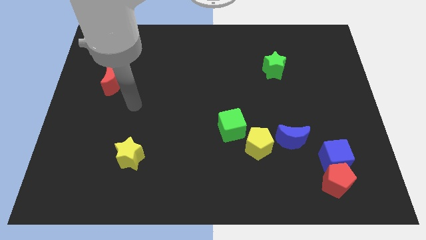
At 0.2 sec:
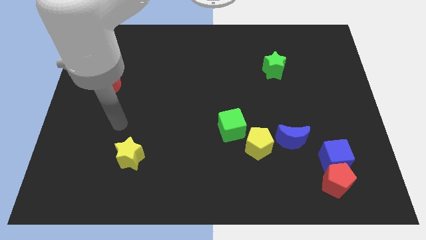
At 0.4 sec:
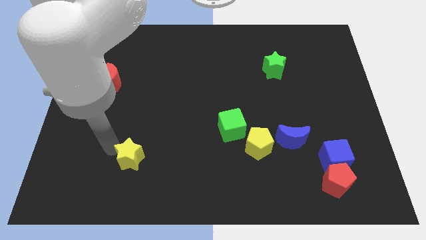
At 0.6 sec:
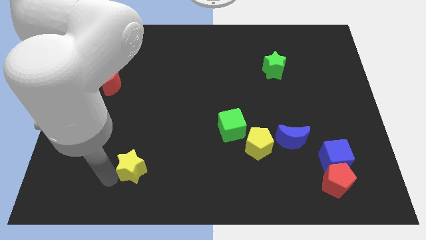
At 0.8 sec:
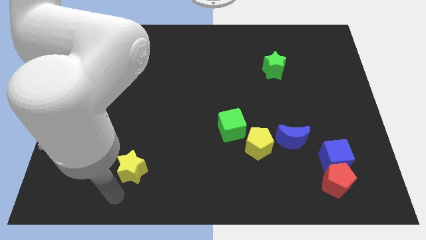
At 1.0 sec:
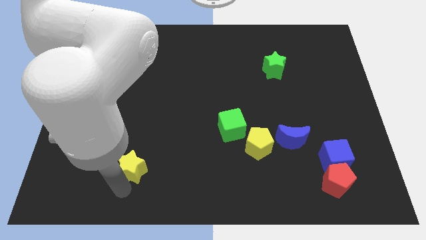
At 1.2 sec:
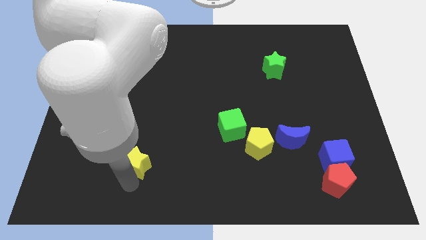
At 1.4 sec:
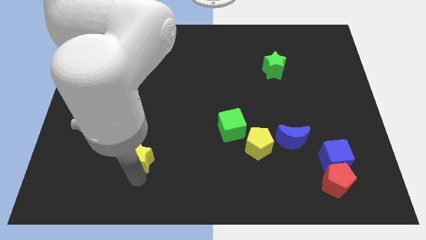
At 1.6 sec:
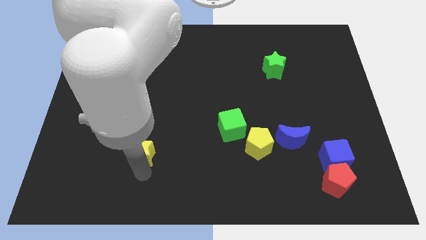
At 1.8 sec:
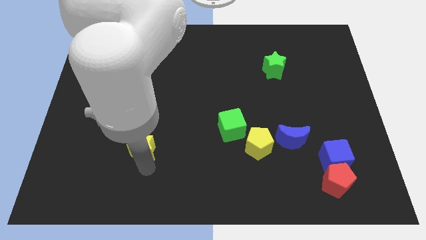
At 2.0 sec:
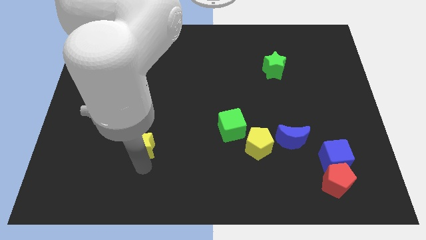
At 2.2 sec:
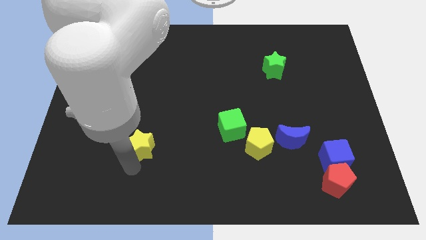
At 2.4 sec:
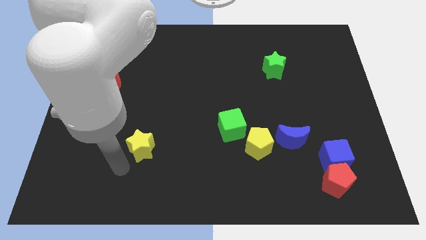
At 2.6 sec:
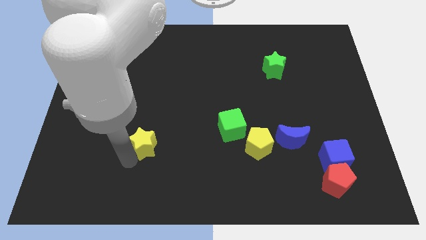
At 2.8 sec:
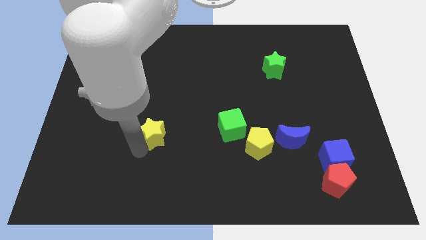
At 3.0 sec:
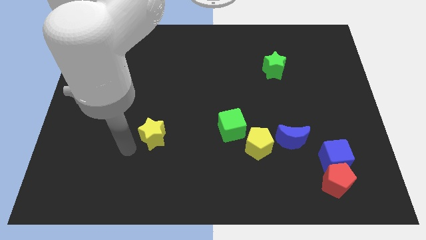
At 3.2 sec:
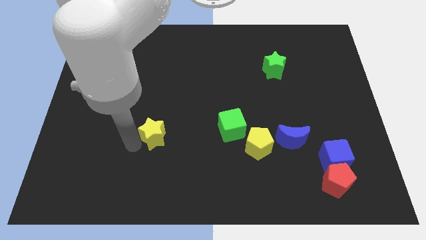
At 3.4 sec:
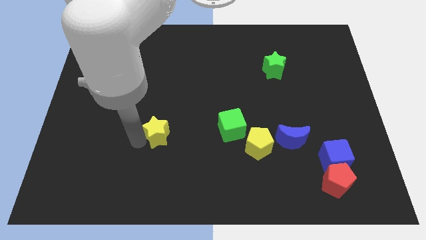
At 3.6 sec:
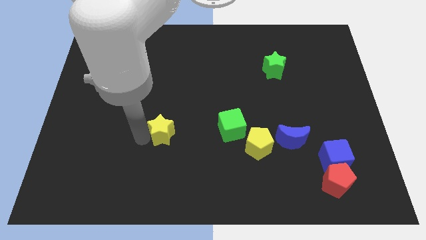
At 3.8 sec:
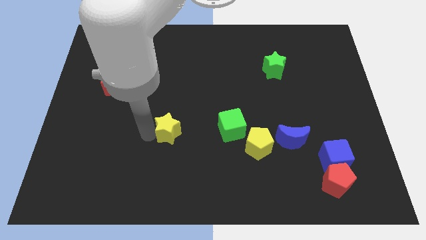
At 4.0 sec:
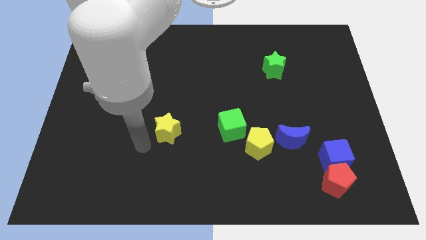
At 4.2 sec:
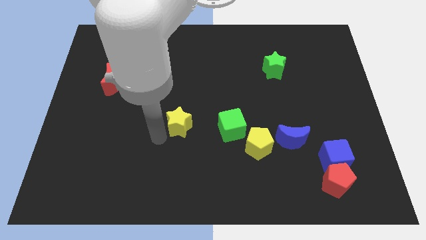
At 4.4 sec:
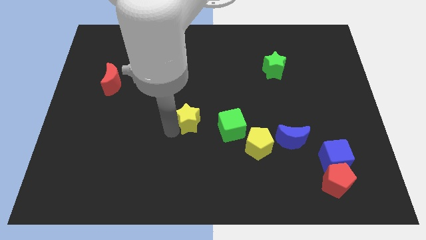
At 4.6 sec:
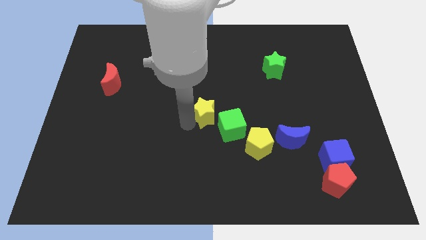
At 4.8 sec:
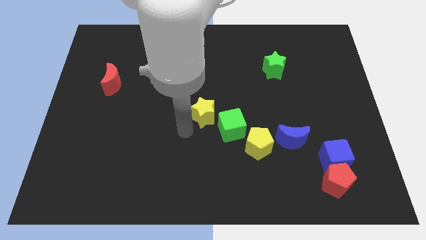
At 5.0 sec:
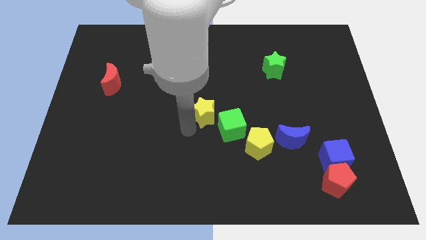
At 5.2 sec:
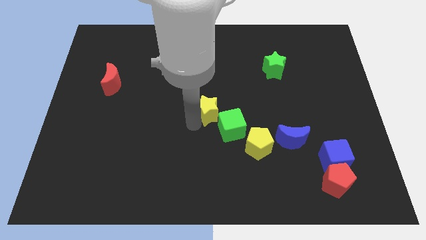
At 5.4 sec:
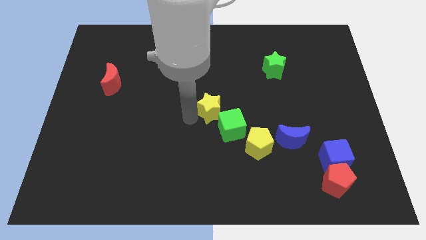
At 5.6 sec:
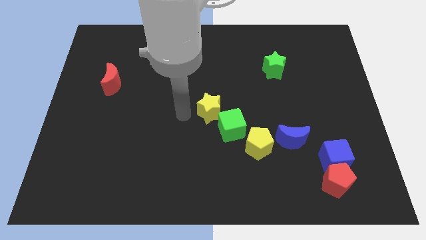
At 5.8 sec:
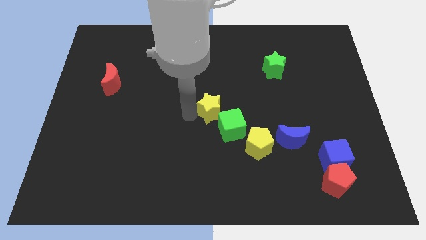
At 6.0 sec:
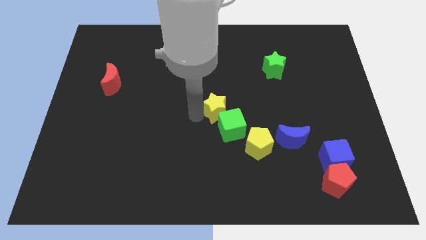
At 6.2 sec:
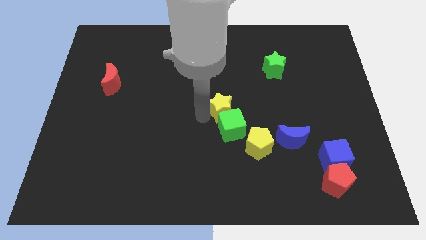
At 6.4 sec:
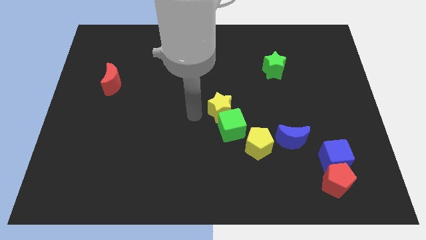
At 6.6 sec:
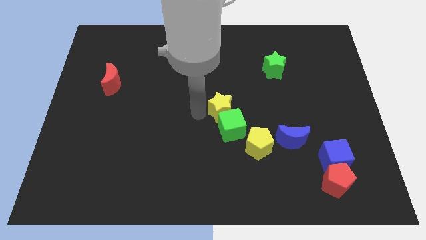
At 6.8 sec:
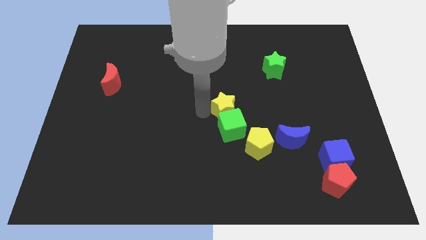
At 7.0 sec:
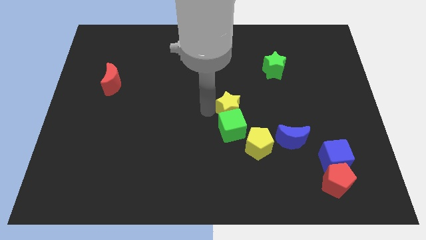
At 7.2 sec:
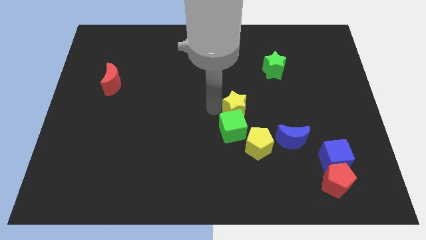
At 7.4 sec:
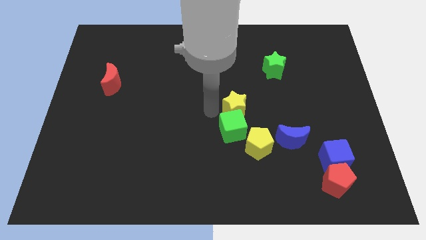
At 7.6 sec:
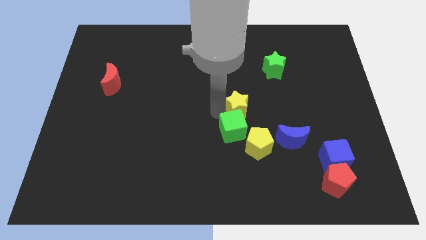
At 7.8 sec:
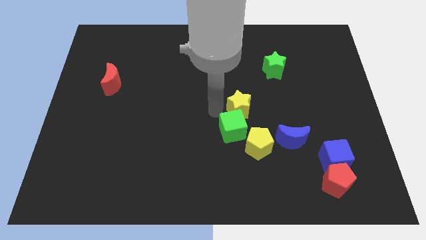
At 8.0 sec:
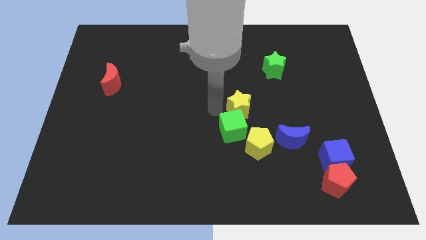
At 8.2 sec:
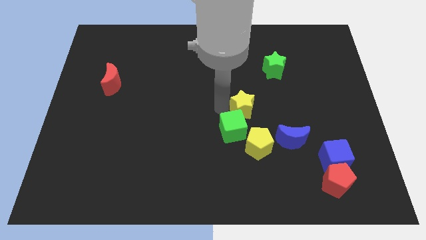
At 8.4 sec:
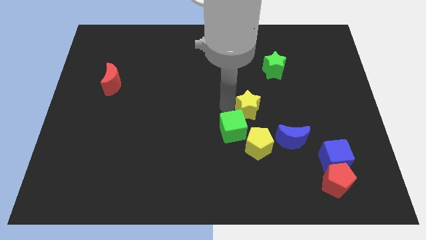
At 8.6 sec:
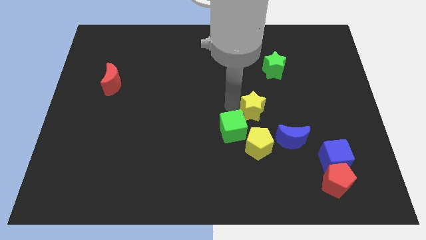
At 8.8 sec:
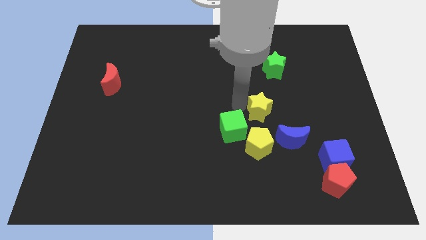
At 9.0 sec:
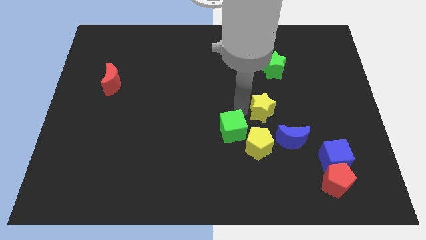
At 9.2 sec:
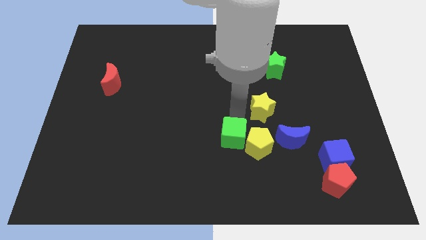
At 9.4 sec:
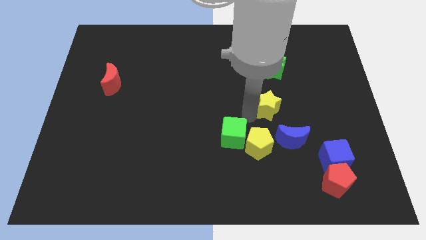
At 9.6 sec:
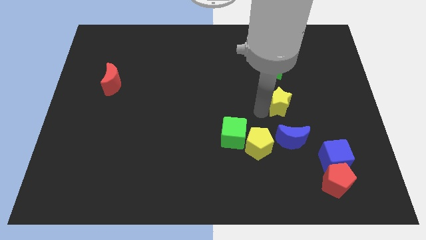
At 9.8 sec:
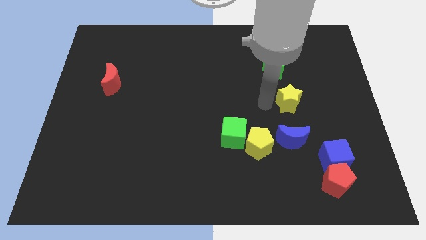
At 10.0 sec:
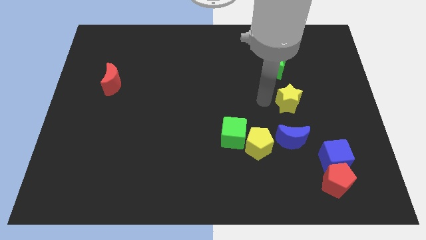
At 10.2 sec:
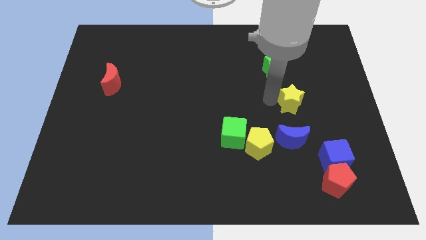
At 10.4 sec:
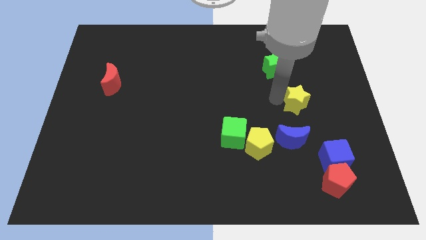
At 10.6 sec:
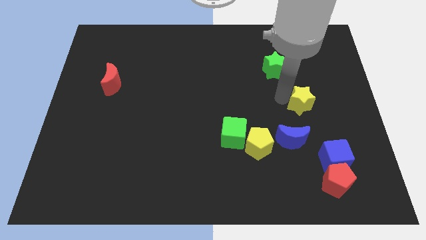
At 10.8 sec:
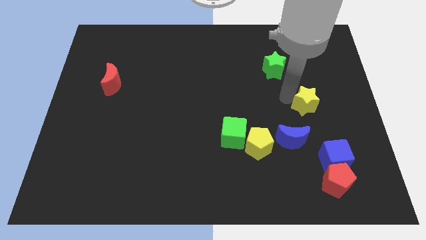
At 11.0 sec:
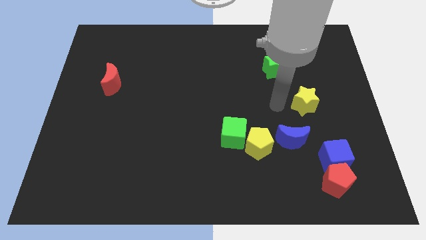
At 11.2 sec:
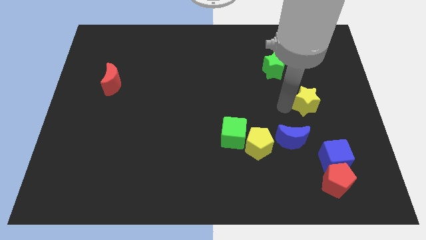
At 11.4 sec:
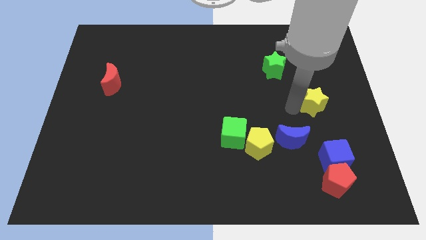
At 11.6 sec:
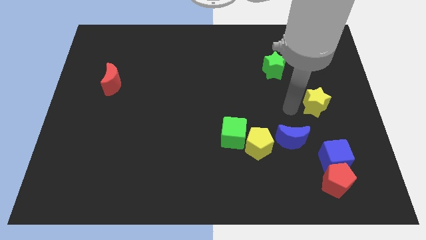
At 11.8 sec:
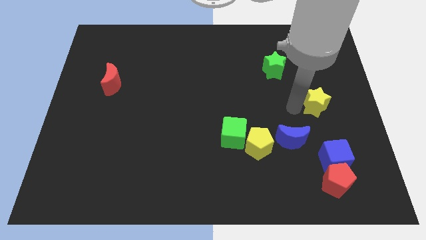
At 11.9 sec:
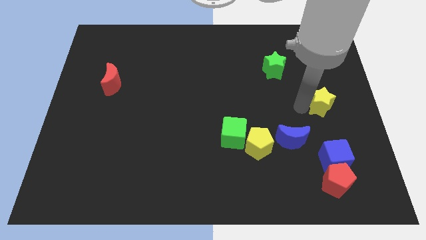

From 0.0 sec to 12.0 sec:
move the yellow star to the right side
